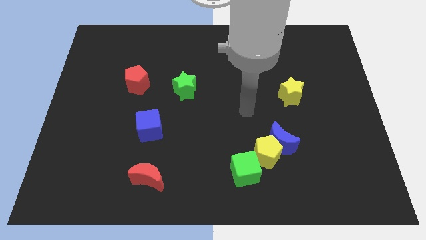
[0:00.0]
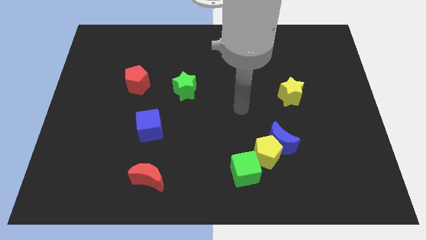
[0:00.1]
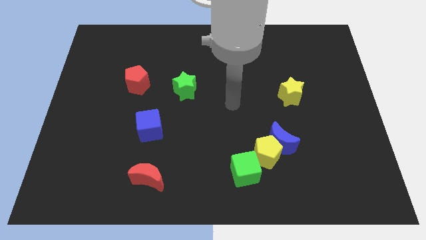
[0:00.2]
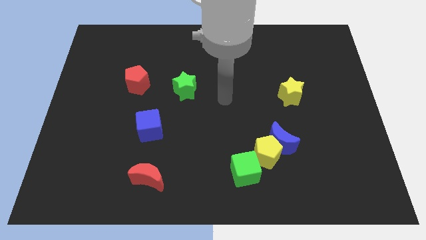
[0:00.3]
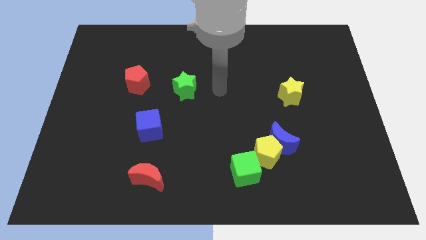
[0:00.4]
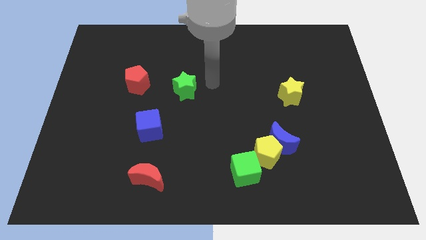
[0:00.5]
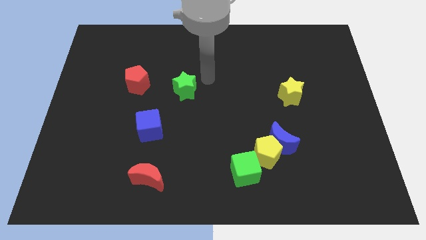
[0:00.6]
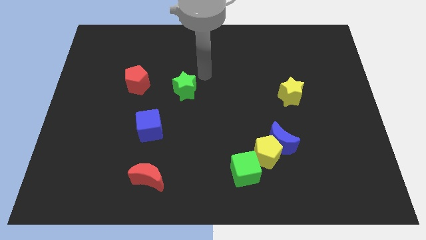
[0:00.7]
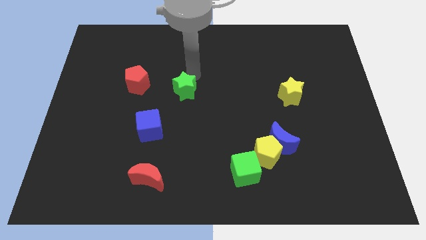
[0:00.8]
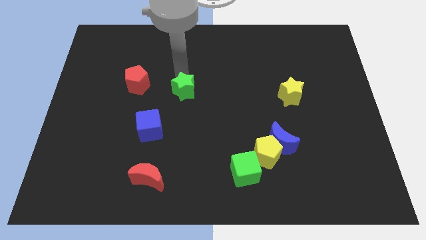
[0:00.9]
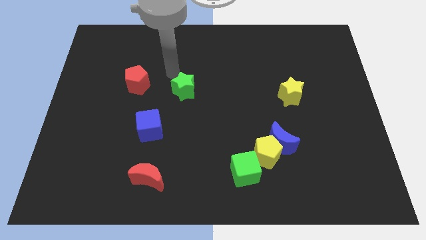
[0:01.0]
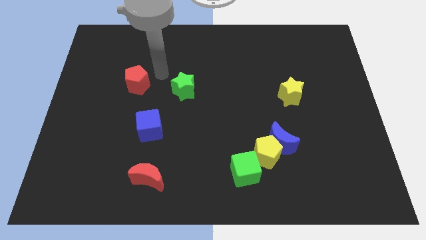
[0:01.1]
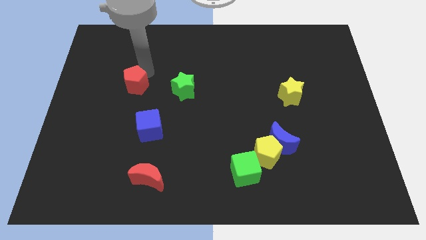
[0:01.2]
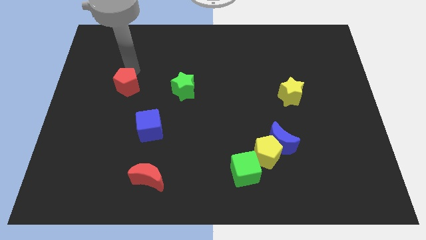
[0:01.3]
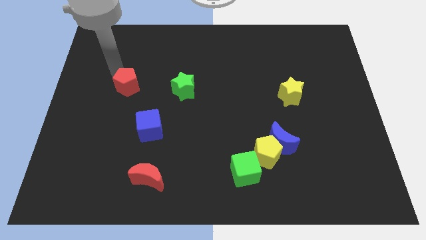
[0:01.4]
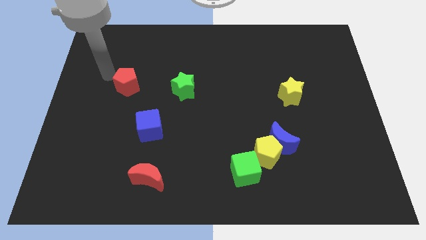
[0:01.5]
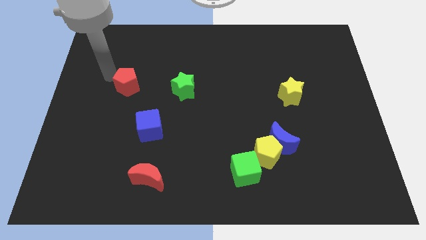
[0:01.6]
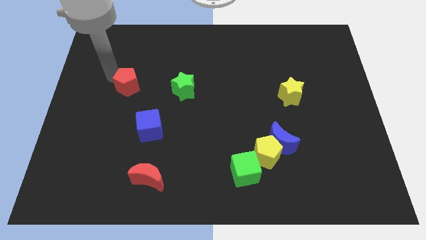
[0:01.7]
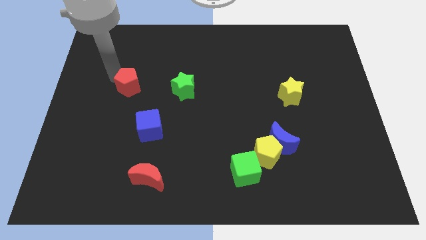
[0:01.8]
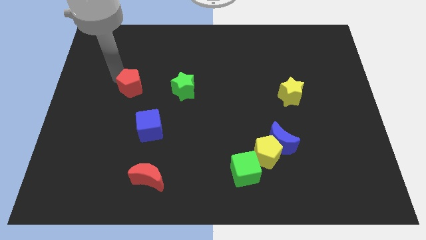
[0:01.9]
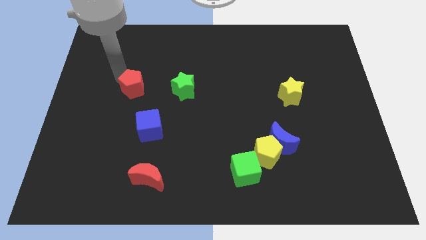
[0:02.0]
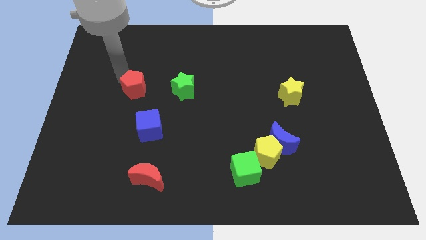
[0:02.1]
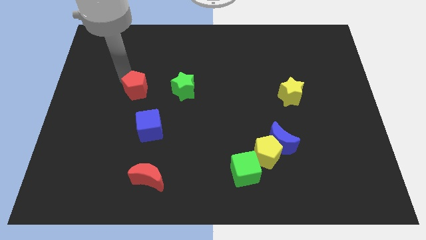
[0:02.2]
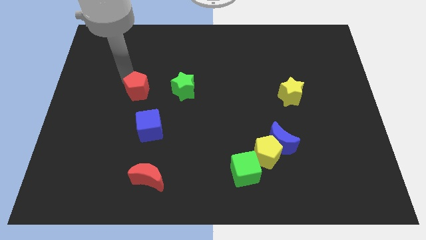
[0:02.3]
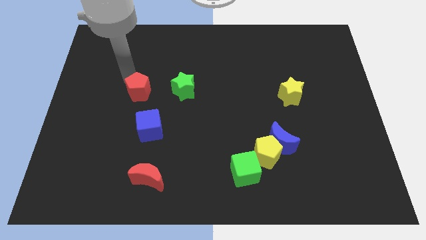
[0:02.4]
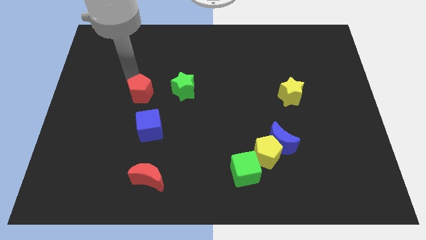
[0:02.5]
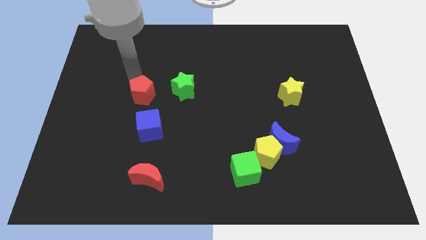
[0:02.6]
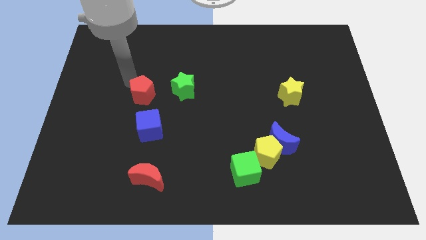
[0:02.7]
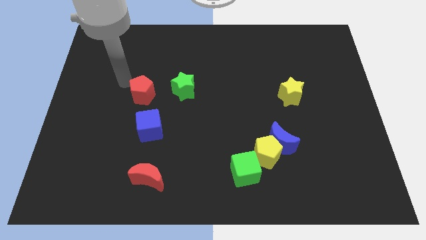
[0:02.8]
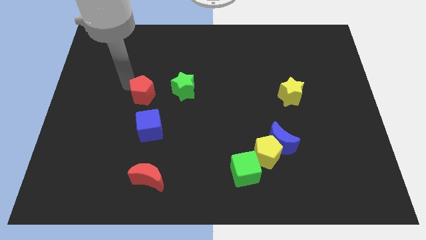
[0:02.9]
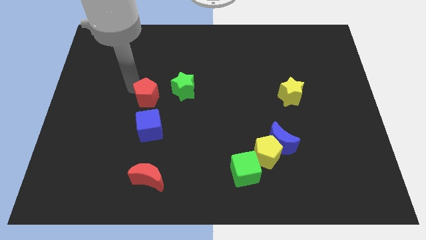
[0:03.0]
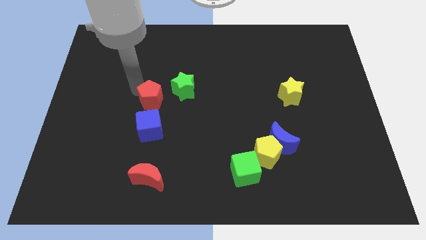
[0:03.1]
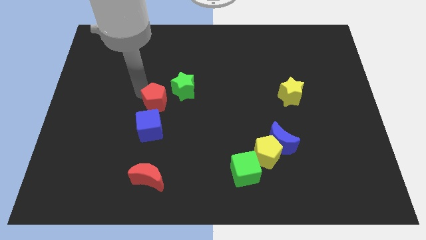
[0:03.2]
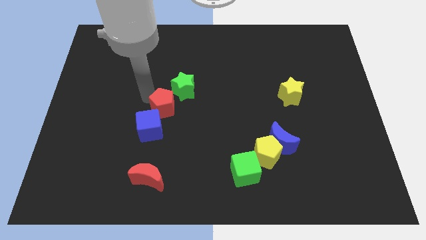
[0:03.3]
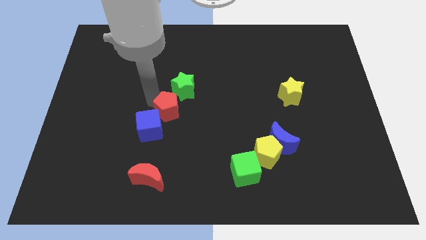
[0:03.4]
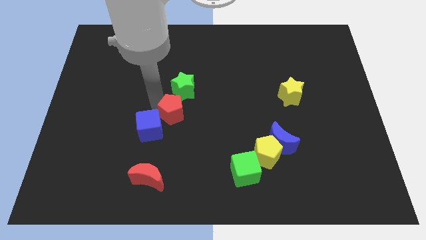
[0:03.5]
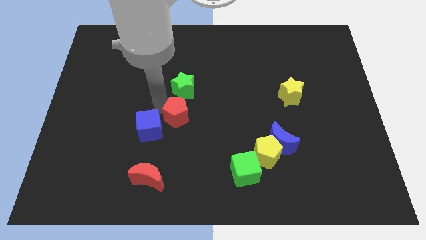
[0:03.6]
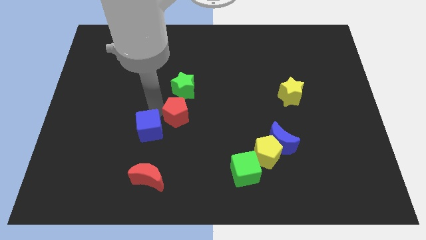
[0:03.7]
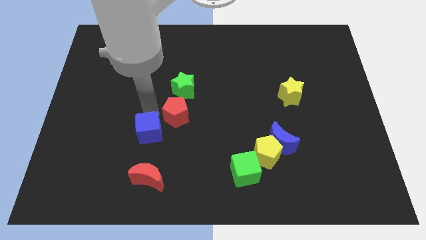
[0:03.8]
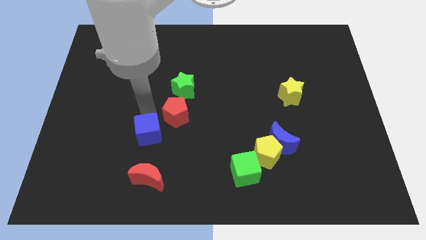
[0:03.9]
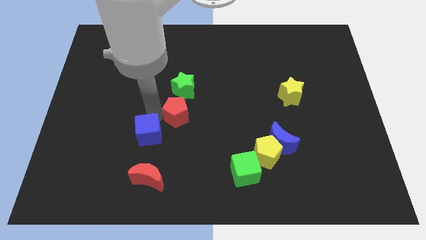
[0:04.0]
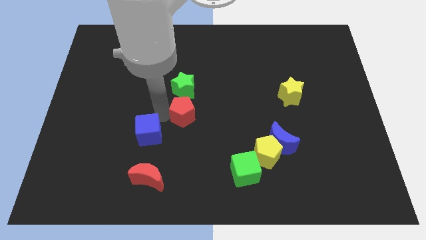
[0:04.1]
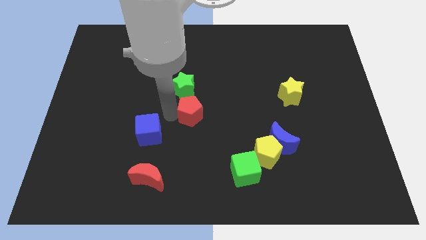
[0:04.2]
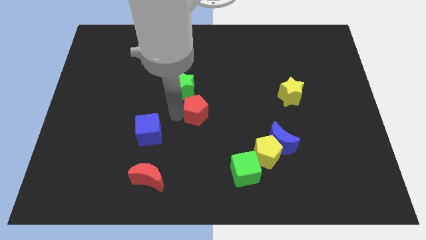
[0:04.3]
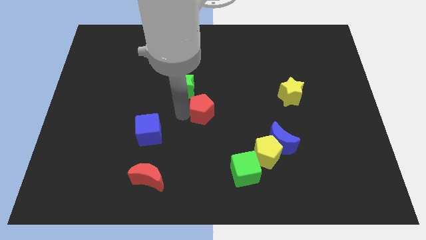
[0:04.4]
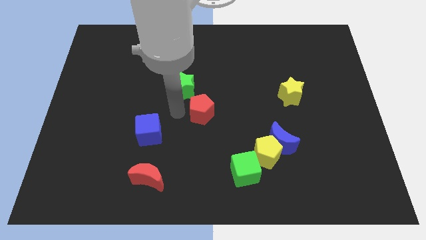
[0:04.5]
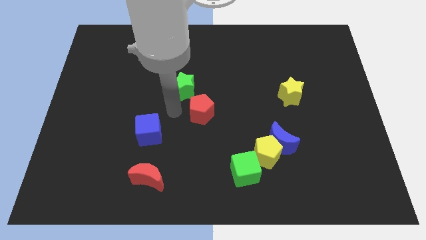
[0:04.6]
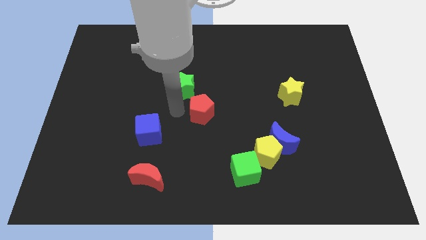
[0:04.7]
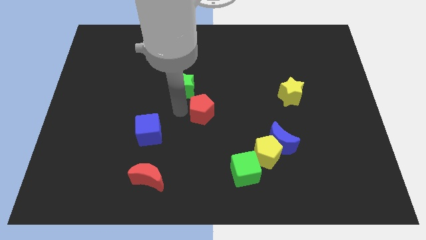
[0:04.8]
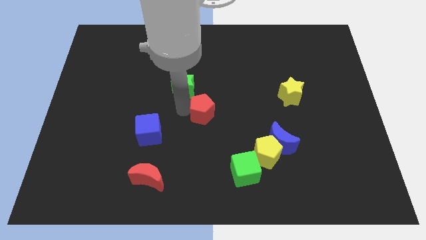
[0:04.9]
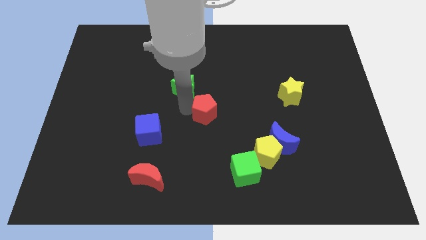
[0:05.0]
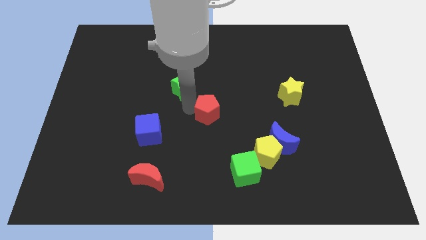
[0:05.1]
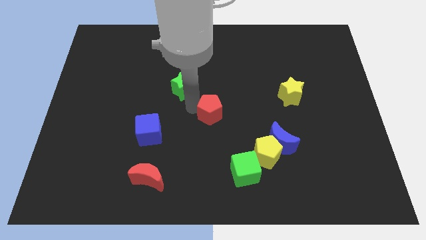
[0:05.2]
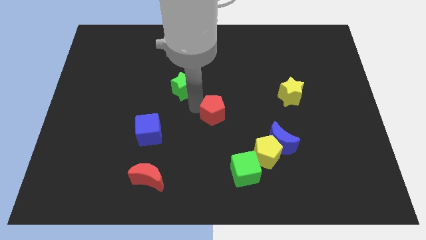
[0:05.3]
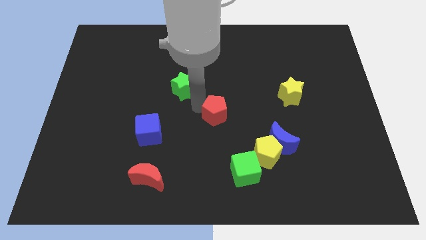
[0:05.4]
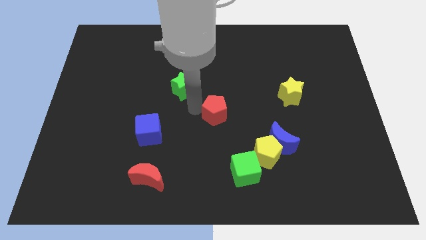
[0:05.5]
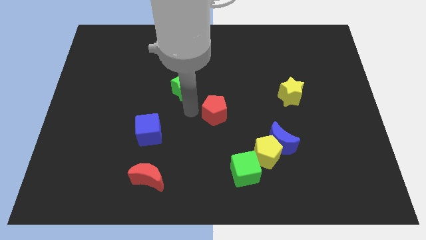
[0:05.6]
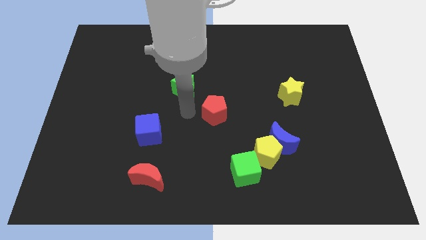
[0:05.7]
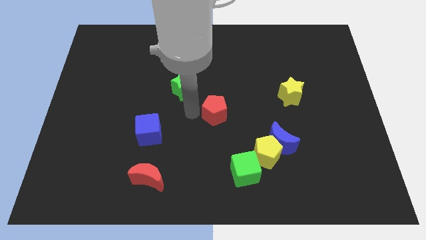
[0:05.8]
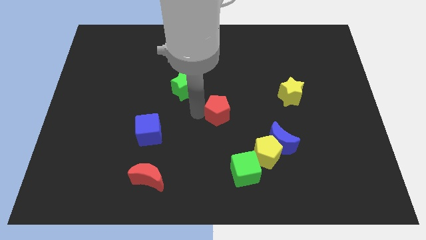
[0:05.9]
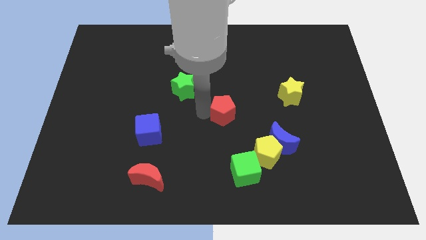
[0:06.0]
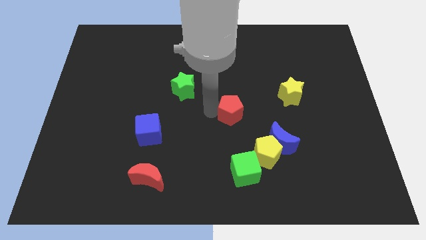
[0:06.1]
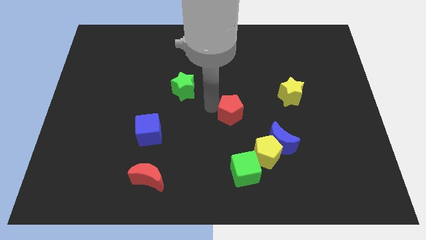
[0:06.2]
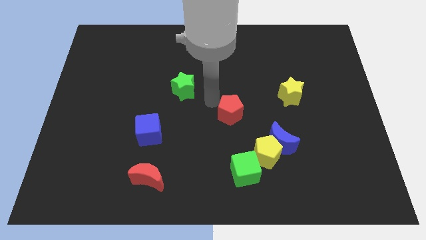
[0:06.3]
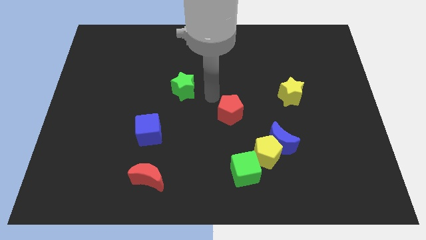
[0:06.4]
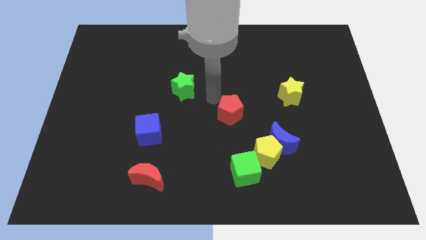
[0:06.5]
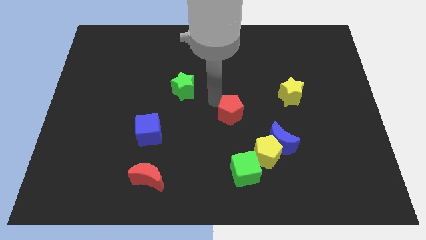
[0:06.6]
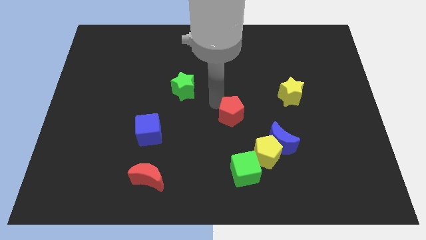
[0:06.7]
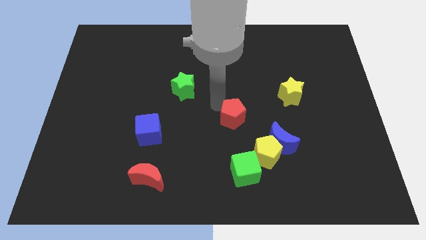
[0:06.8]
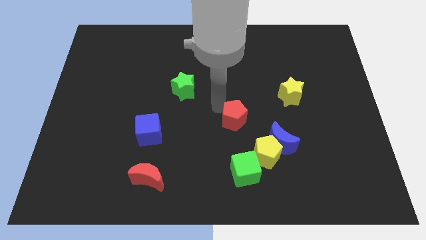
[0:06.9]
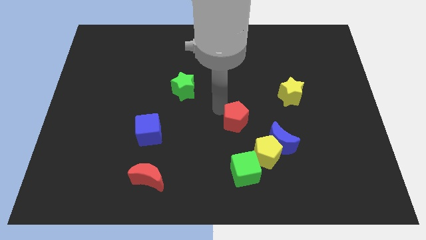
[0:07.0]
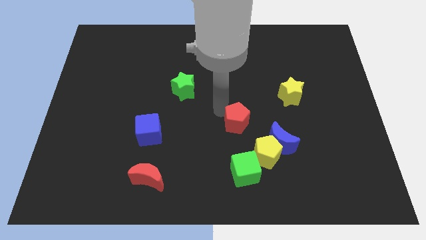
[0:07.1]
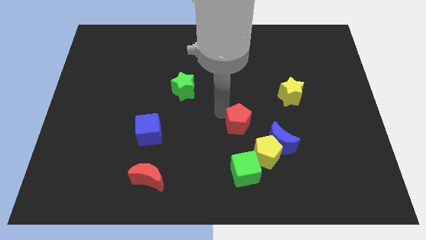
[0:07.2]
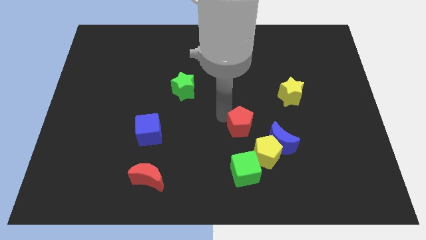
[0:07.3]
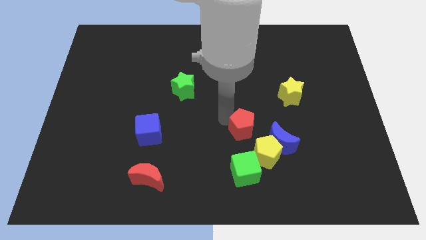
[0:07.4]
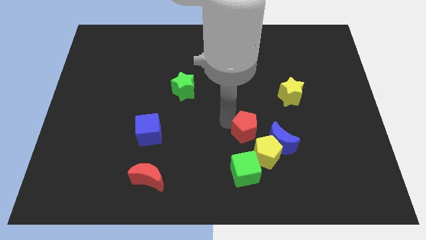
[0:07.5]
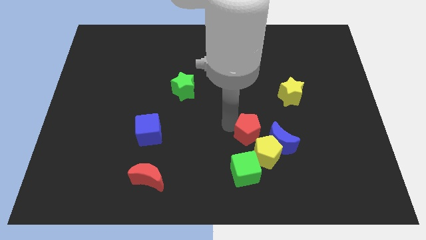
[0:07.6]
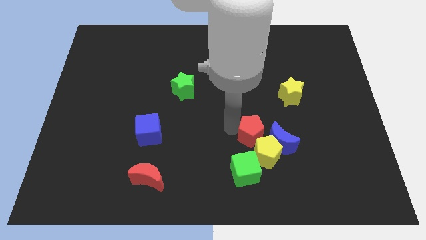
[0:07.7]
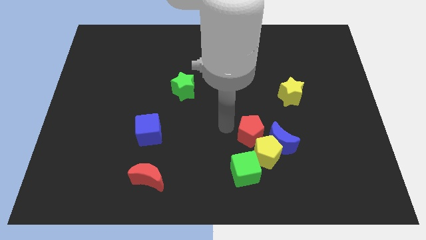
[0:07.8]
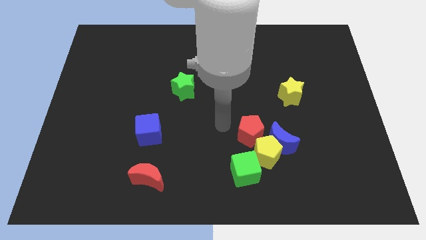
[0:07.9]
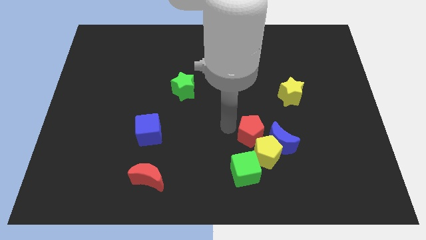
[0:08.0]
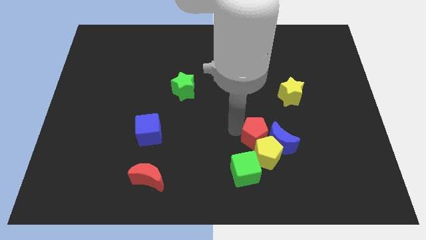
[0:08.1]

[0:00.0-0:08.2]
put the red pentagon to the blue moon

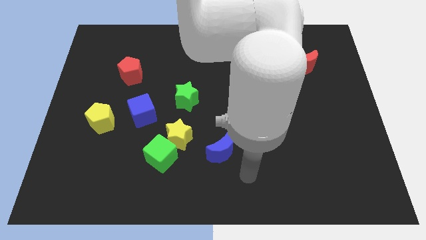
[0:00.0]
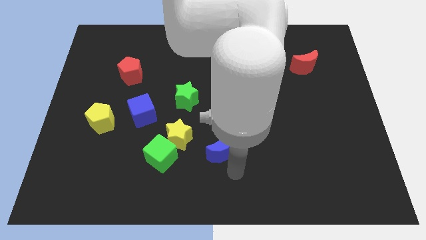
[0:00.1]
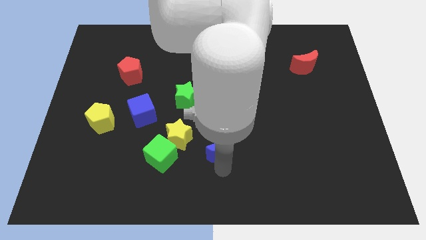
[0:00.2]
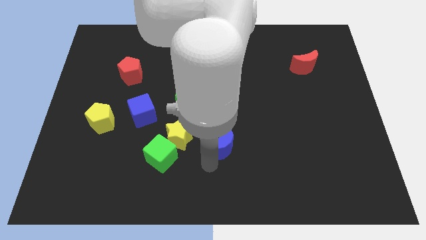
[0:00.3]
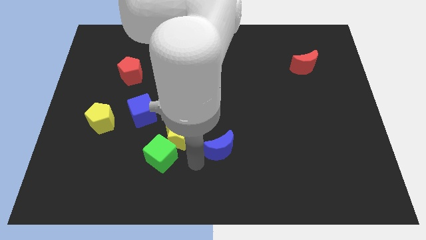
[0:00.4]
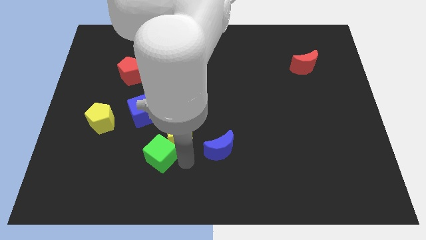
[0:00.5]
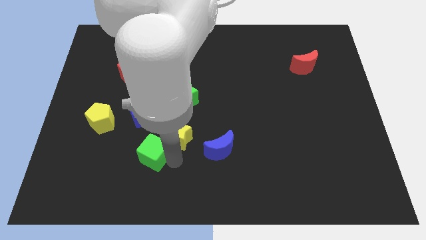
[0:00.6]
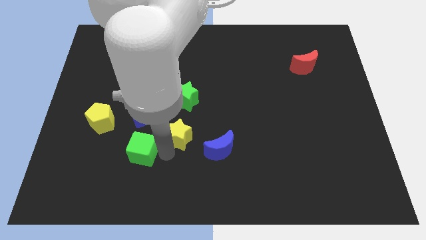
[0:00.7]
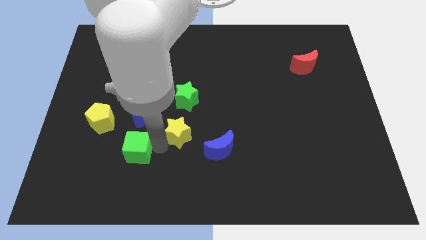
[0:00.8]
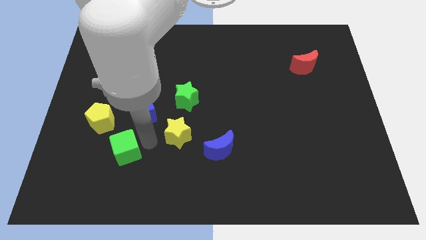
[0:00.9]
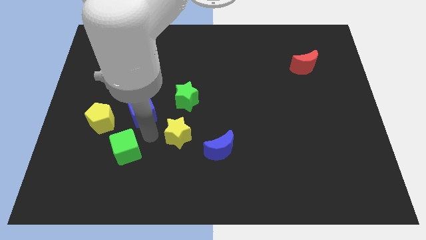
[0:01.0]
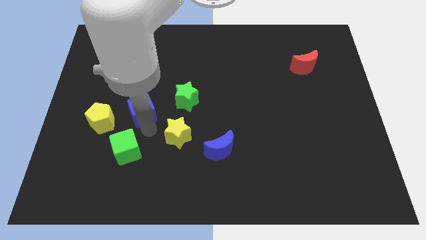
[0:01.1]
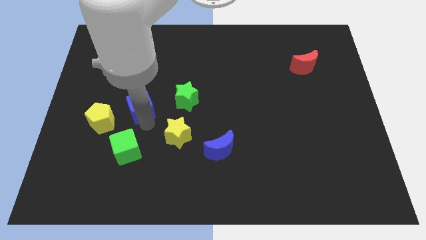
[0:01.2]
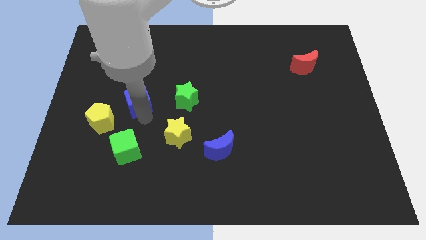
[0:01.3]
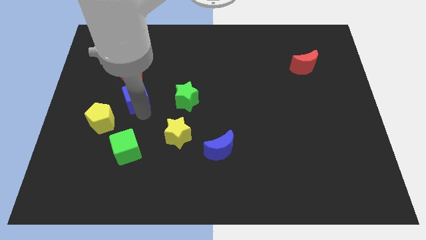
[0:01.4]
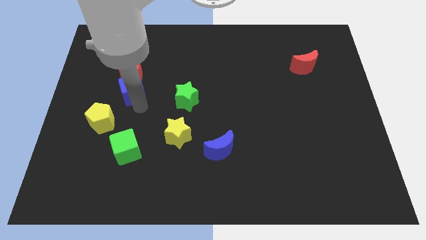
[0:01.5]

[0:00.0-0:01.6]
slide the blue cube next to the red pentagon
